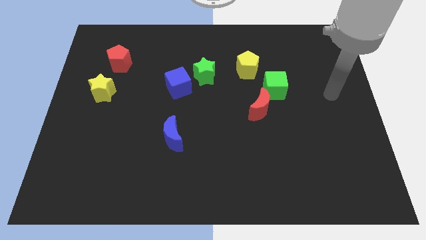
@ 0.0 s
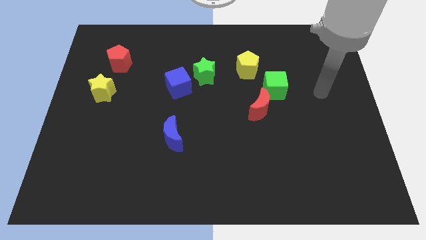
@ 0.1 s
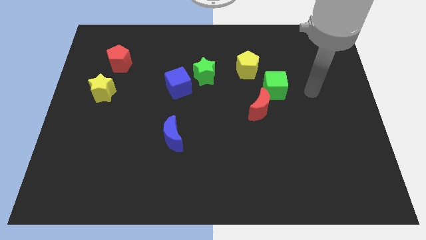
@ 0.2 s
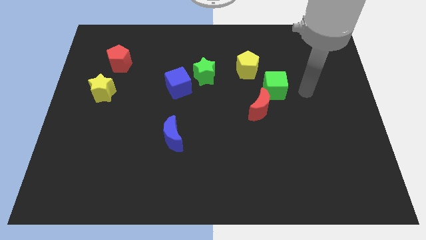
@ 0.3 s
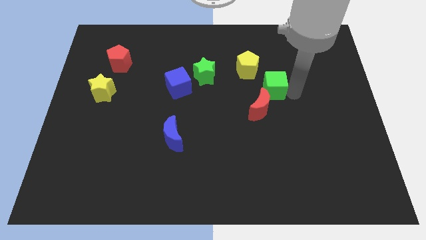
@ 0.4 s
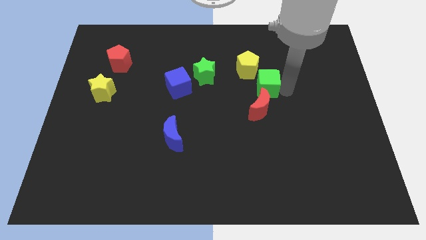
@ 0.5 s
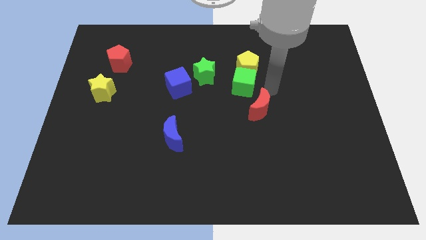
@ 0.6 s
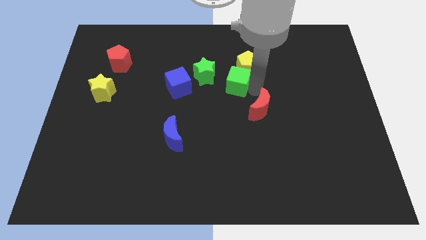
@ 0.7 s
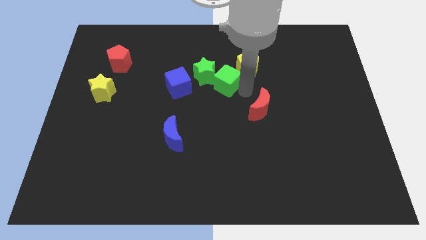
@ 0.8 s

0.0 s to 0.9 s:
pull the red moon apart from the green cube

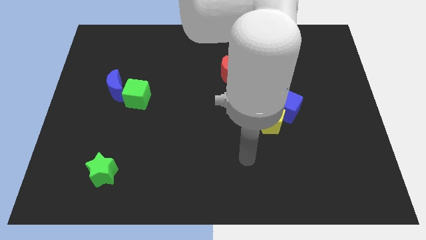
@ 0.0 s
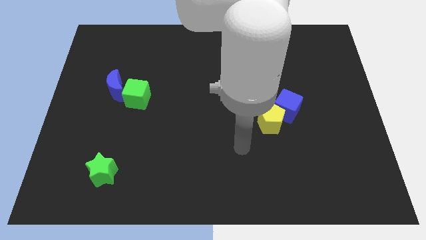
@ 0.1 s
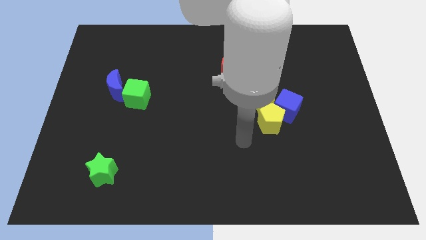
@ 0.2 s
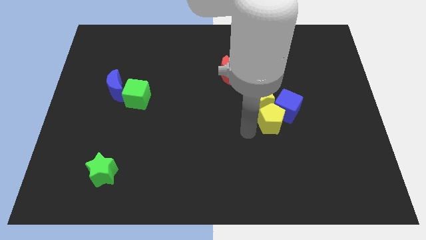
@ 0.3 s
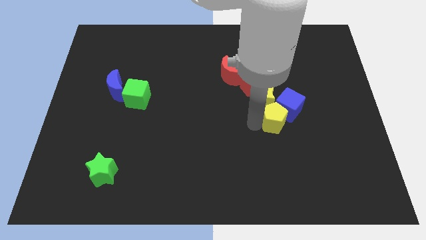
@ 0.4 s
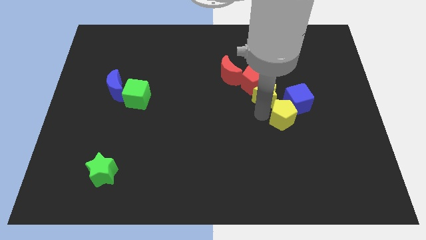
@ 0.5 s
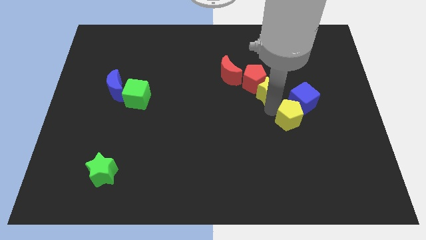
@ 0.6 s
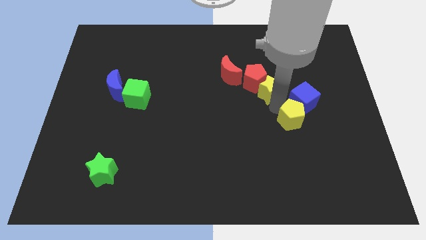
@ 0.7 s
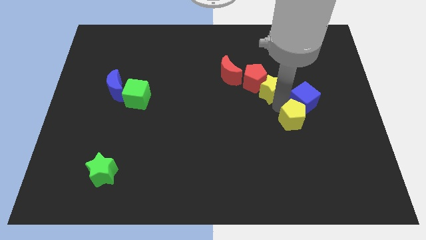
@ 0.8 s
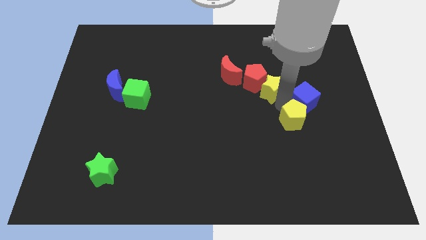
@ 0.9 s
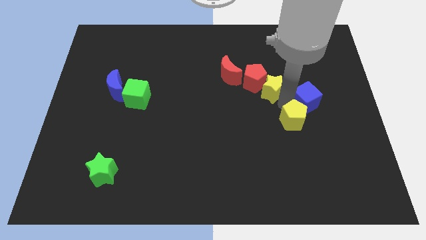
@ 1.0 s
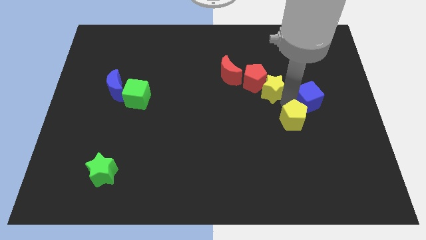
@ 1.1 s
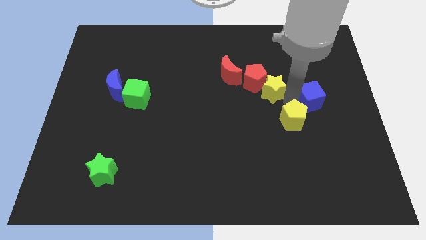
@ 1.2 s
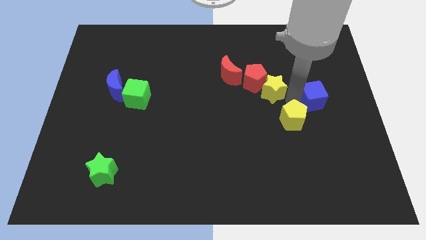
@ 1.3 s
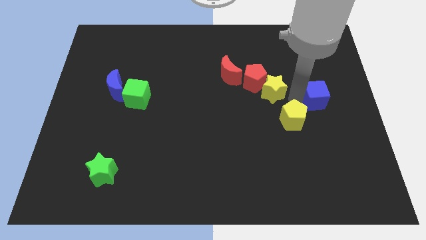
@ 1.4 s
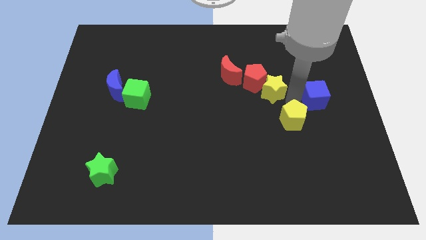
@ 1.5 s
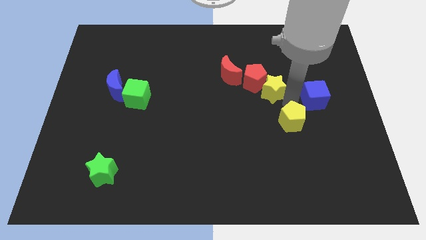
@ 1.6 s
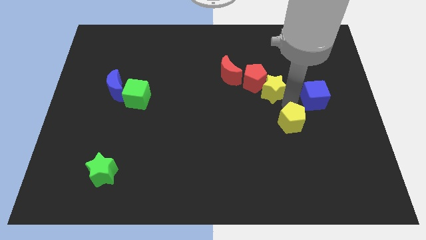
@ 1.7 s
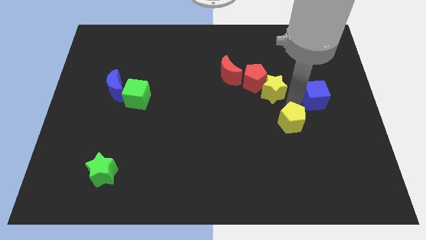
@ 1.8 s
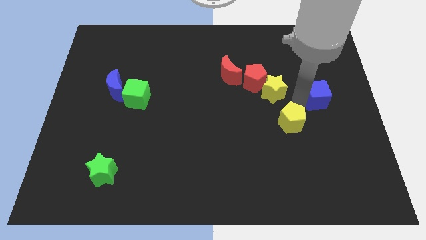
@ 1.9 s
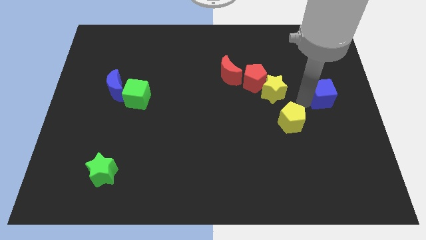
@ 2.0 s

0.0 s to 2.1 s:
separate the blue cube from the yellow pentagon and yellow star

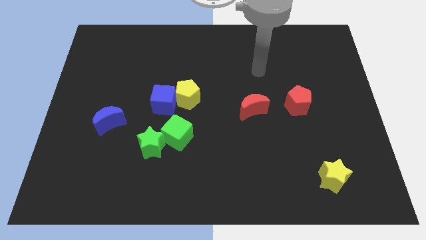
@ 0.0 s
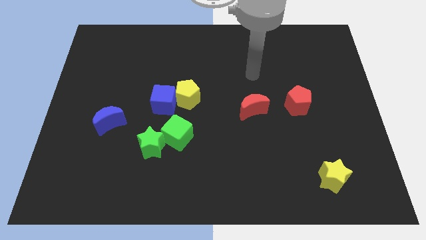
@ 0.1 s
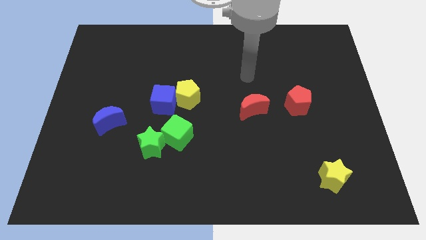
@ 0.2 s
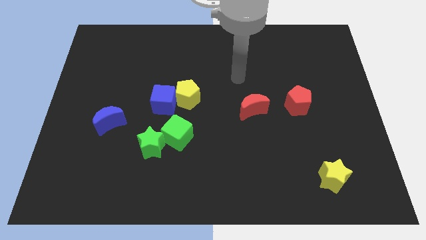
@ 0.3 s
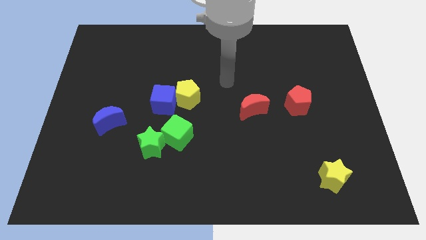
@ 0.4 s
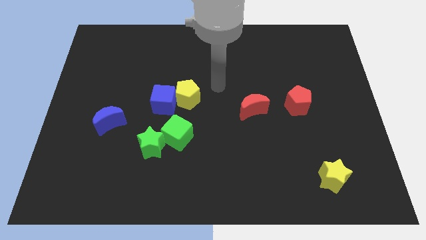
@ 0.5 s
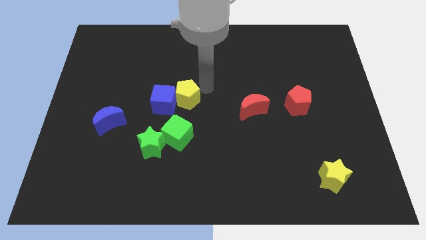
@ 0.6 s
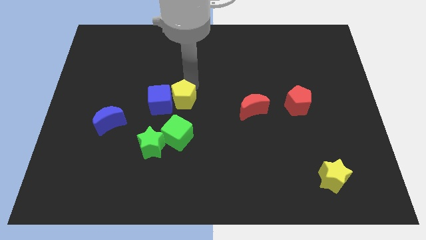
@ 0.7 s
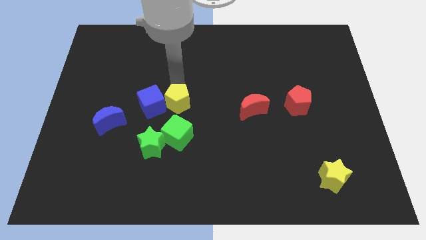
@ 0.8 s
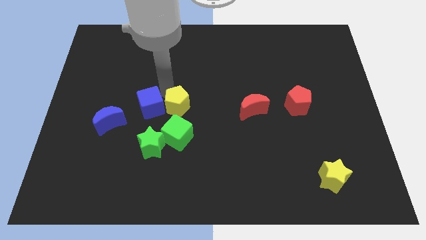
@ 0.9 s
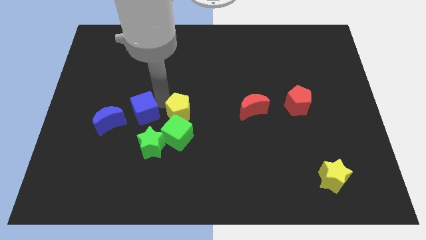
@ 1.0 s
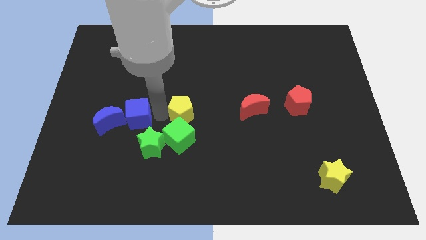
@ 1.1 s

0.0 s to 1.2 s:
move the yellow pentagon away from the blue cube

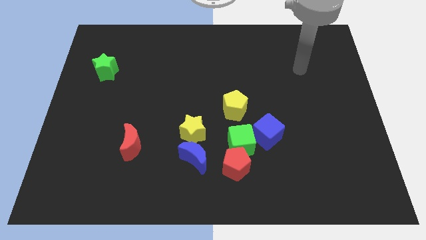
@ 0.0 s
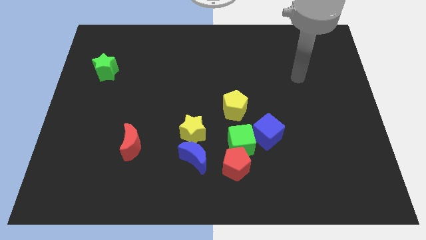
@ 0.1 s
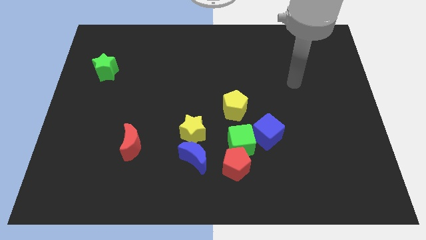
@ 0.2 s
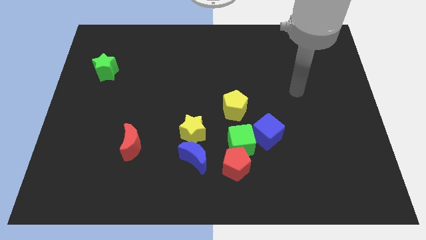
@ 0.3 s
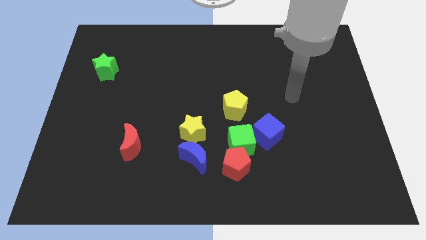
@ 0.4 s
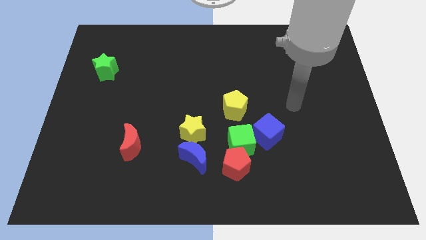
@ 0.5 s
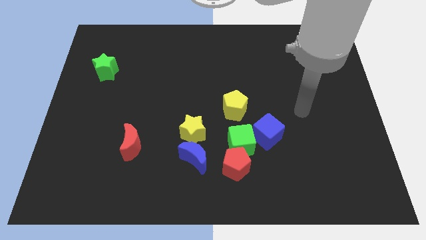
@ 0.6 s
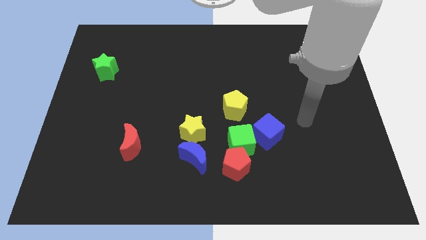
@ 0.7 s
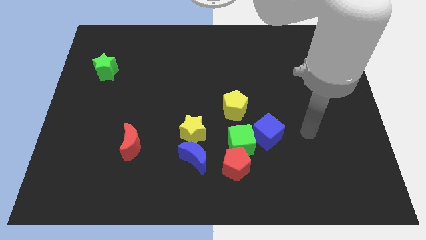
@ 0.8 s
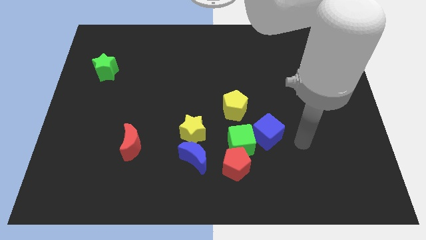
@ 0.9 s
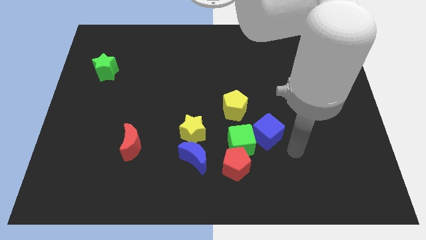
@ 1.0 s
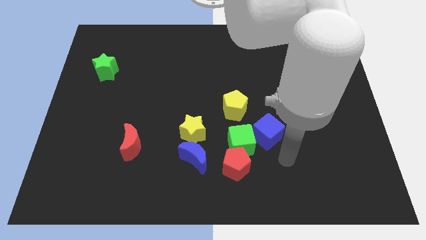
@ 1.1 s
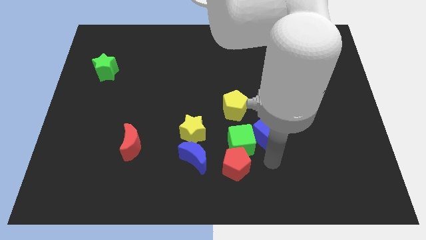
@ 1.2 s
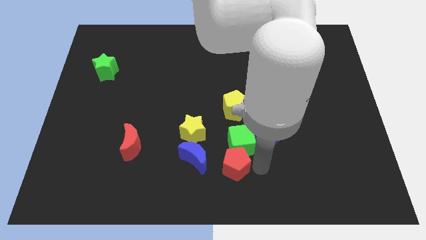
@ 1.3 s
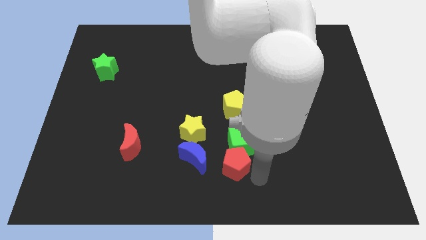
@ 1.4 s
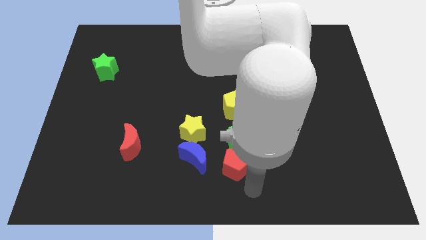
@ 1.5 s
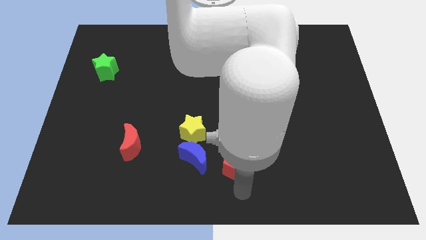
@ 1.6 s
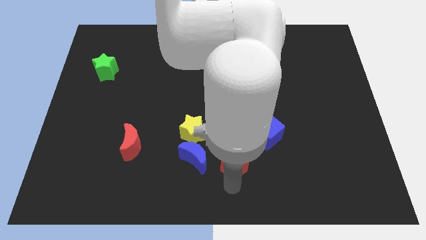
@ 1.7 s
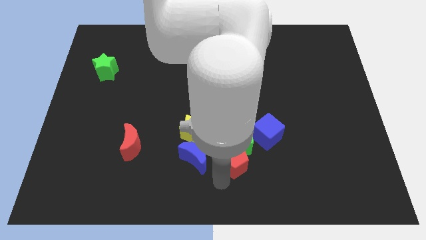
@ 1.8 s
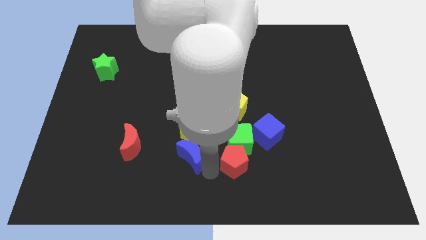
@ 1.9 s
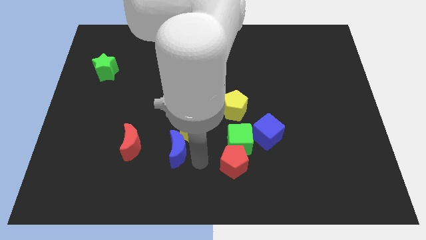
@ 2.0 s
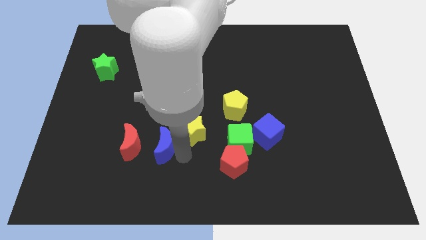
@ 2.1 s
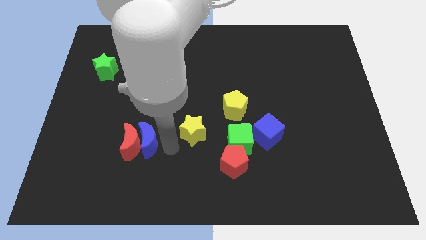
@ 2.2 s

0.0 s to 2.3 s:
pull the yellow star apart from the blue moon

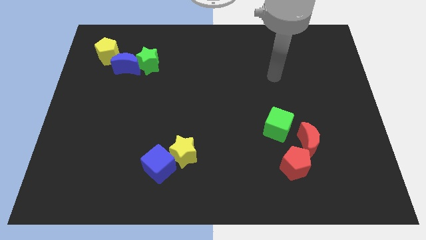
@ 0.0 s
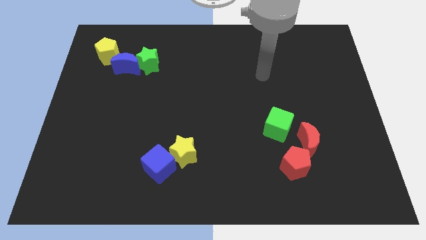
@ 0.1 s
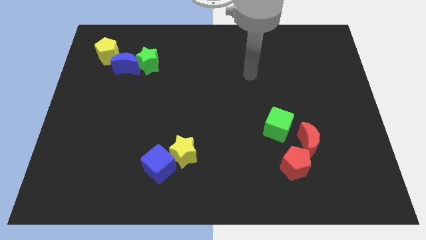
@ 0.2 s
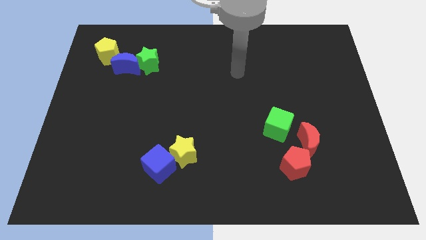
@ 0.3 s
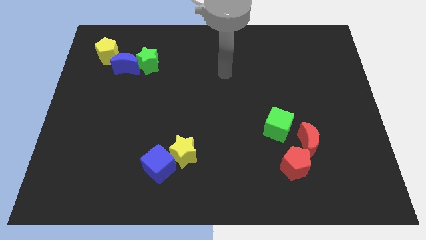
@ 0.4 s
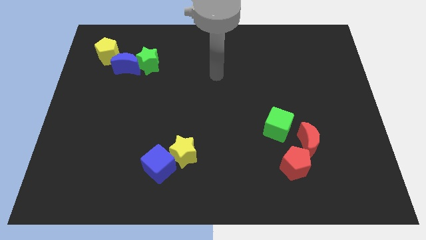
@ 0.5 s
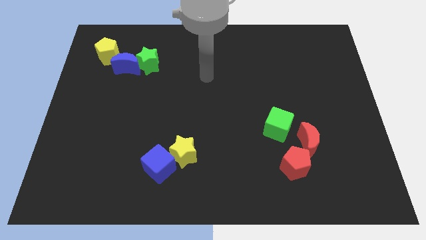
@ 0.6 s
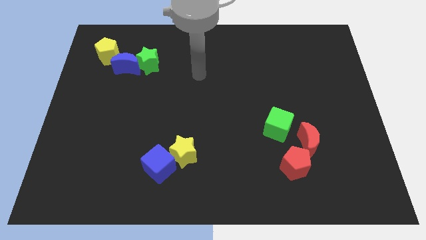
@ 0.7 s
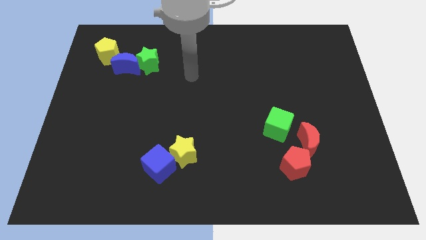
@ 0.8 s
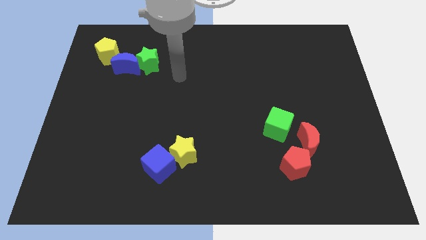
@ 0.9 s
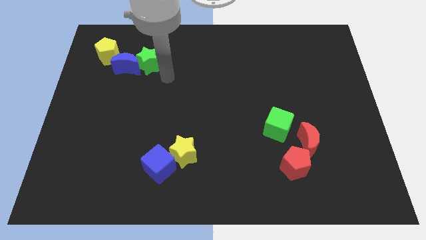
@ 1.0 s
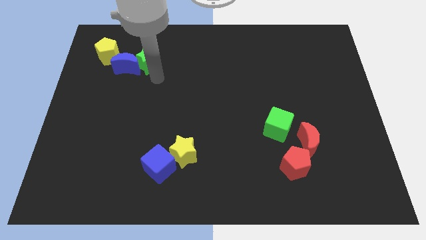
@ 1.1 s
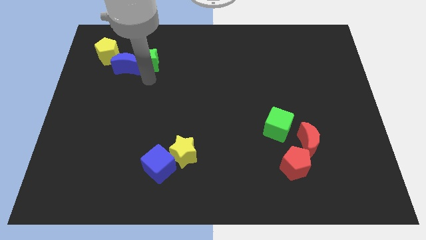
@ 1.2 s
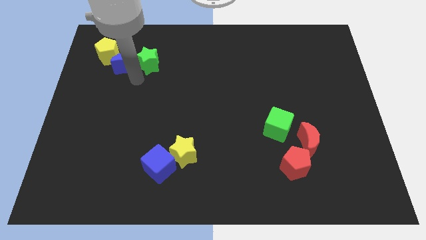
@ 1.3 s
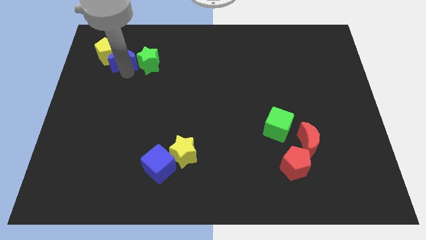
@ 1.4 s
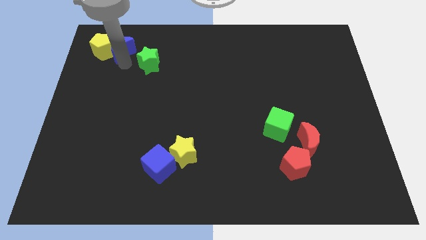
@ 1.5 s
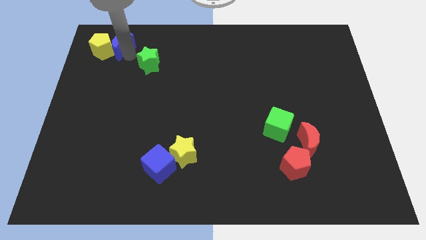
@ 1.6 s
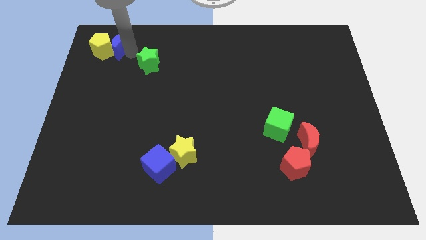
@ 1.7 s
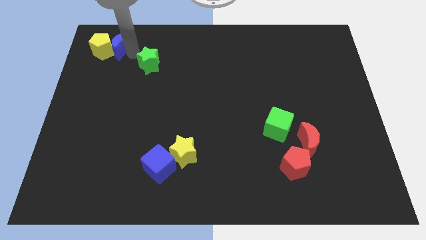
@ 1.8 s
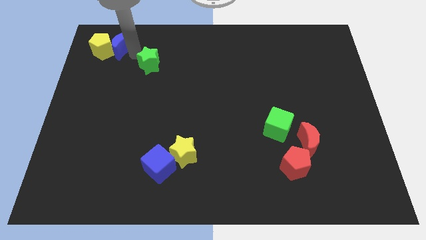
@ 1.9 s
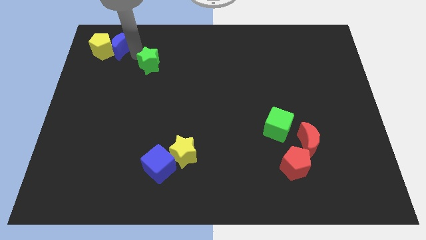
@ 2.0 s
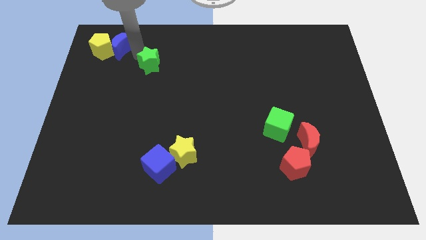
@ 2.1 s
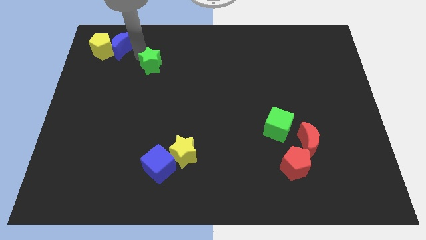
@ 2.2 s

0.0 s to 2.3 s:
pull the green star apart from the blue moon

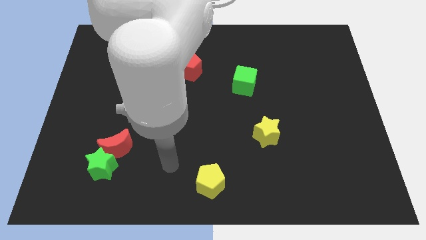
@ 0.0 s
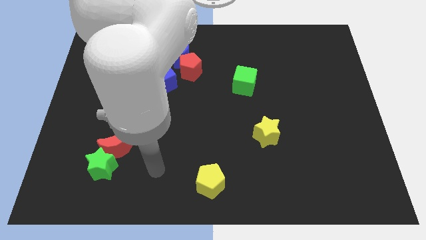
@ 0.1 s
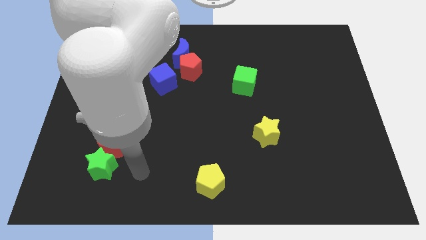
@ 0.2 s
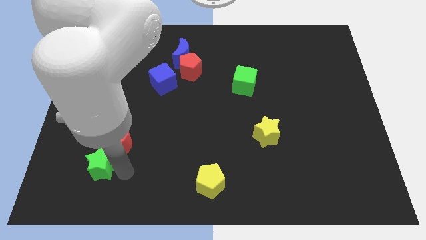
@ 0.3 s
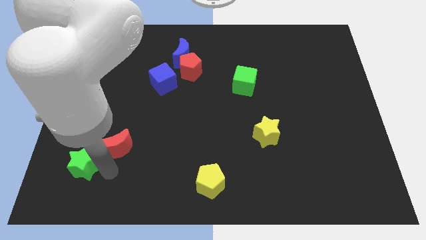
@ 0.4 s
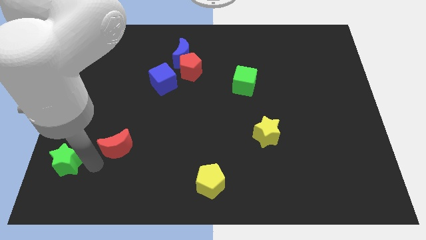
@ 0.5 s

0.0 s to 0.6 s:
separate the red moon from the green star
